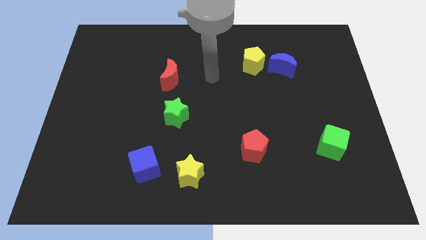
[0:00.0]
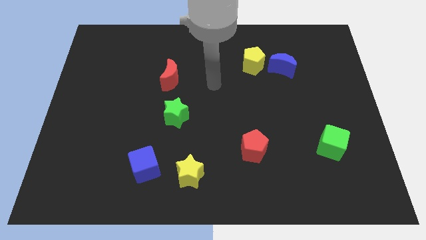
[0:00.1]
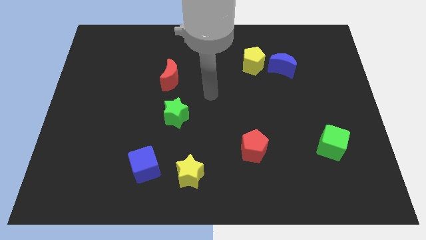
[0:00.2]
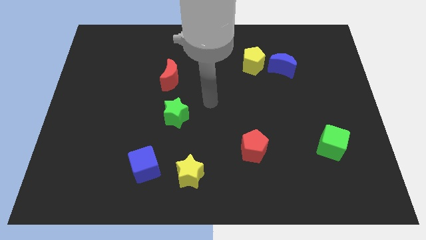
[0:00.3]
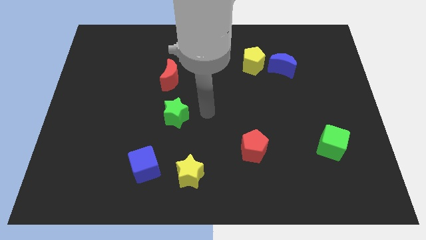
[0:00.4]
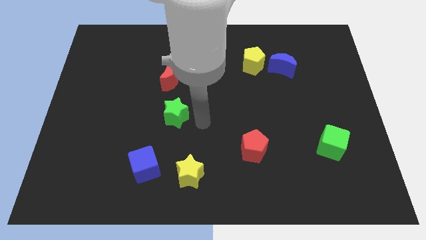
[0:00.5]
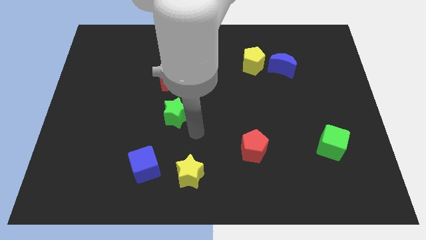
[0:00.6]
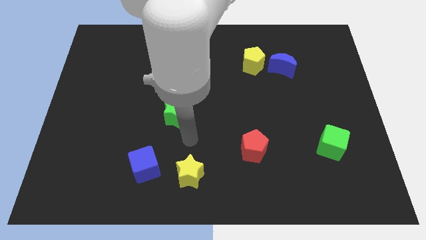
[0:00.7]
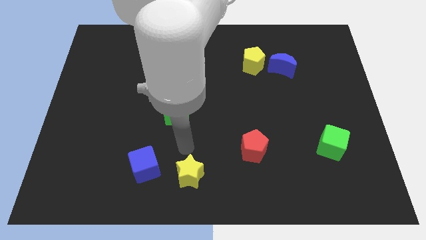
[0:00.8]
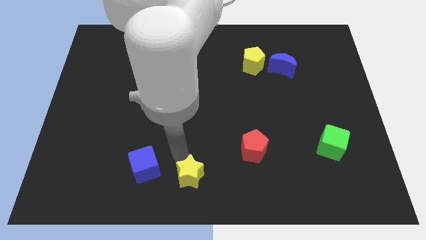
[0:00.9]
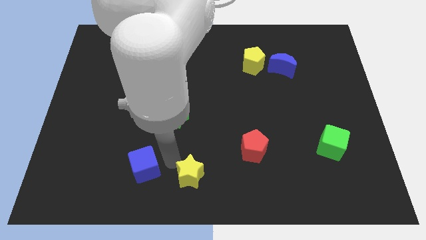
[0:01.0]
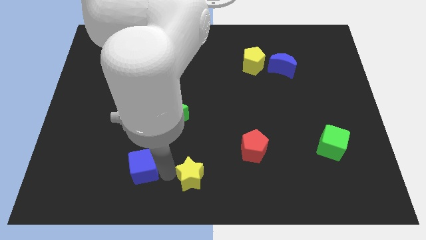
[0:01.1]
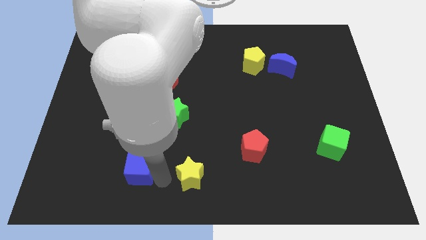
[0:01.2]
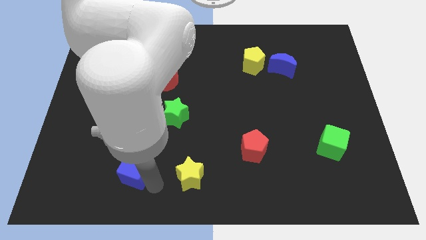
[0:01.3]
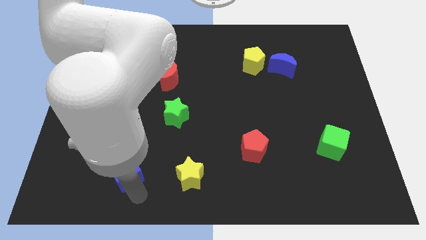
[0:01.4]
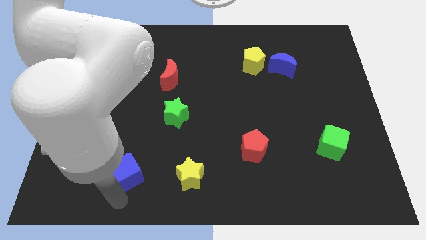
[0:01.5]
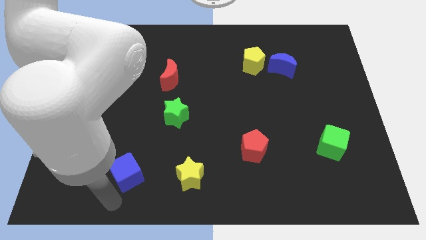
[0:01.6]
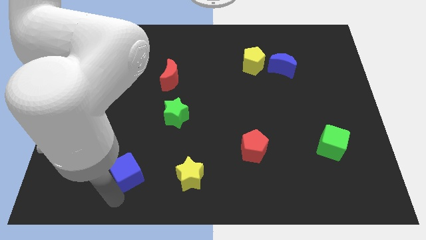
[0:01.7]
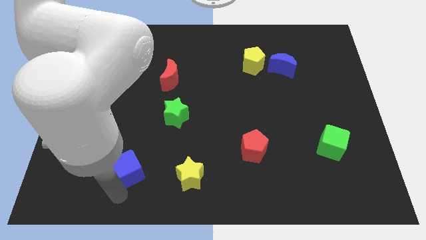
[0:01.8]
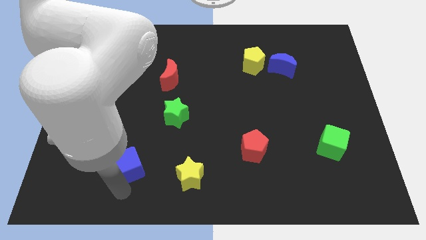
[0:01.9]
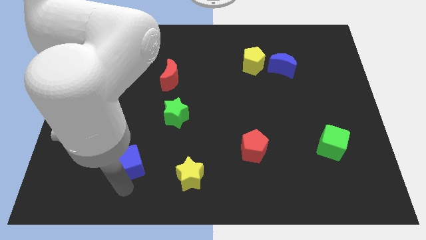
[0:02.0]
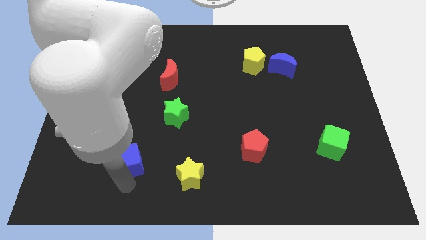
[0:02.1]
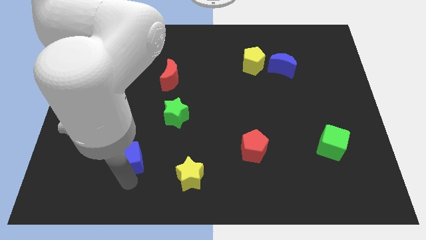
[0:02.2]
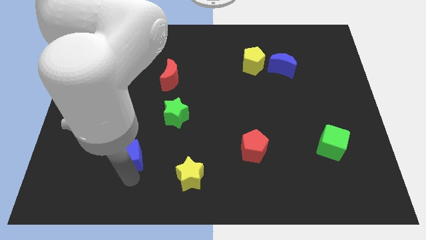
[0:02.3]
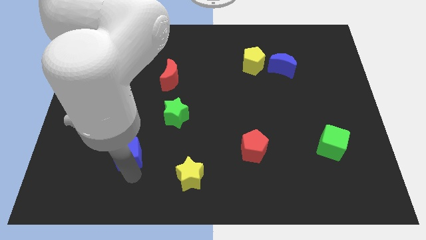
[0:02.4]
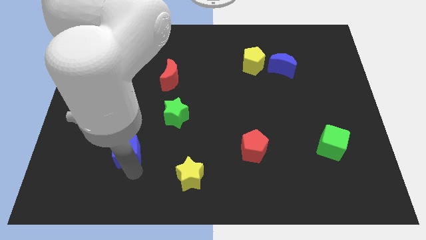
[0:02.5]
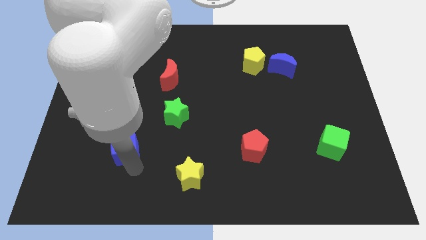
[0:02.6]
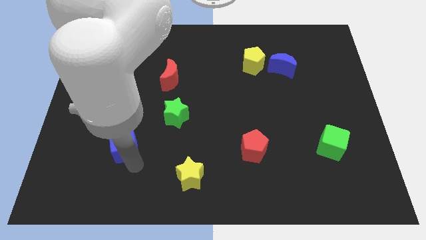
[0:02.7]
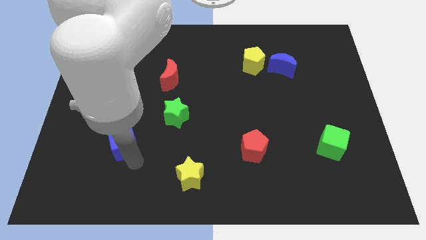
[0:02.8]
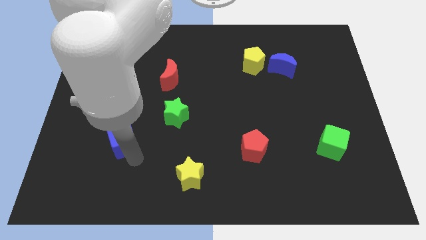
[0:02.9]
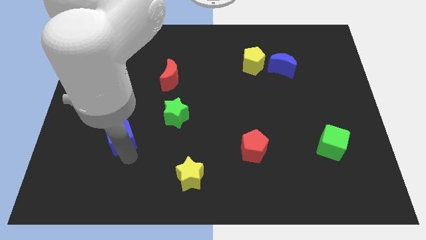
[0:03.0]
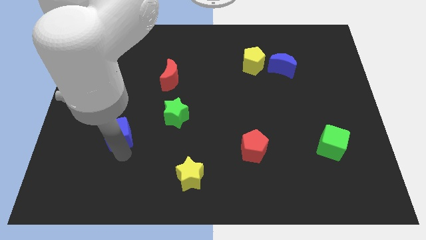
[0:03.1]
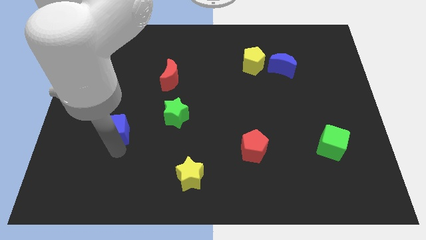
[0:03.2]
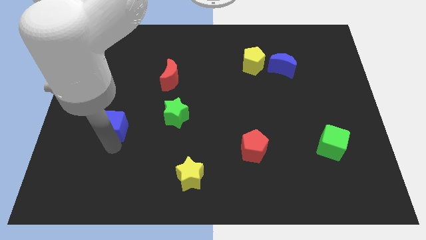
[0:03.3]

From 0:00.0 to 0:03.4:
move the blue cube somewhat up

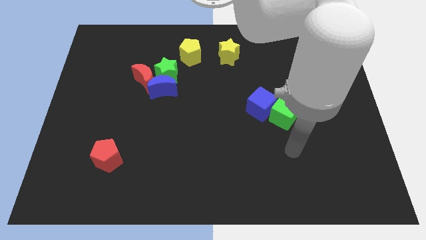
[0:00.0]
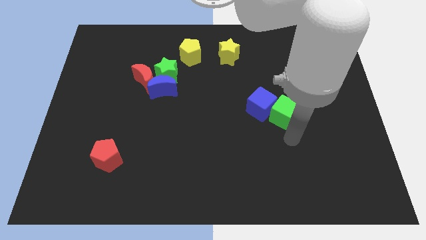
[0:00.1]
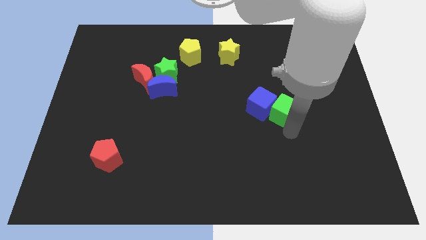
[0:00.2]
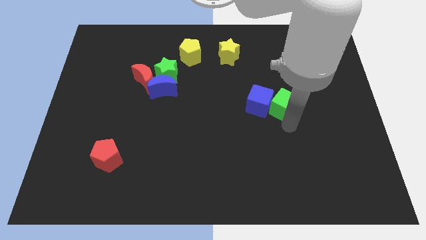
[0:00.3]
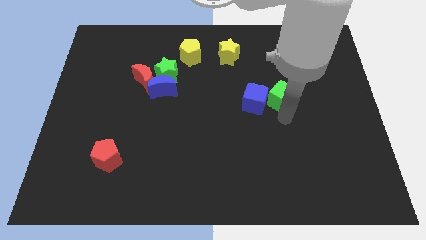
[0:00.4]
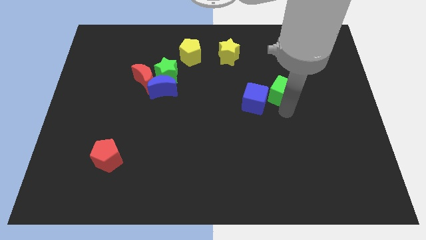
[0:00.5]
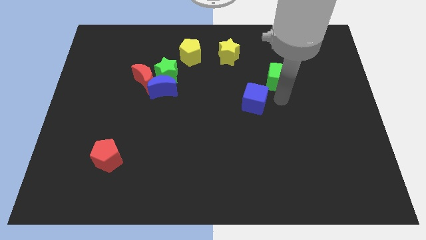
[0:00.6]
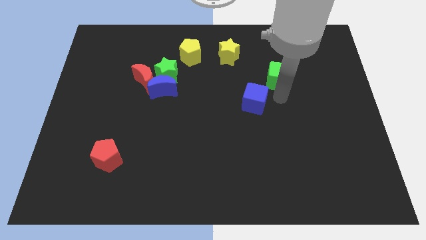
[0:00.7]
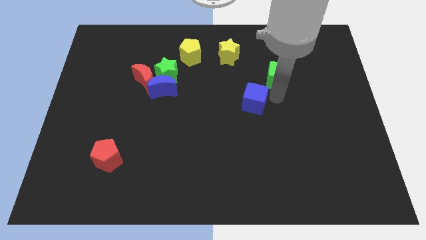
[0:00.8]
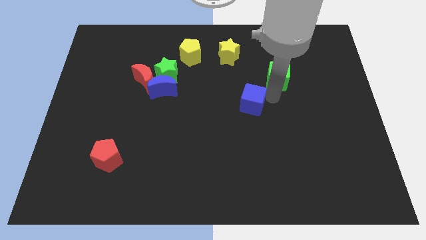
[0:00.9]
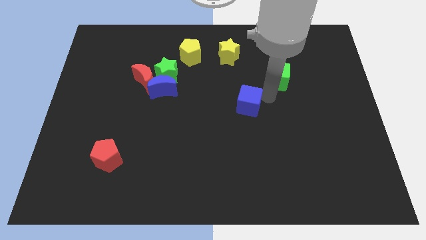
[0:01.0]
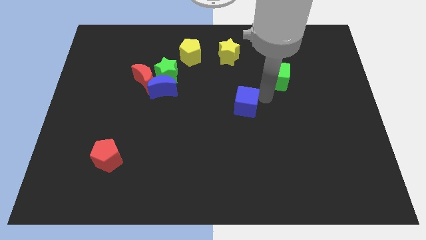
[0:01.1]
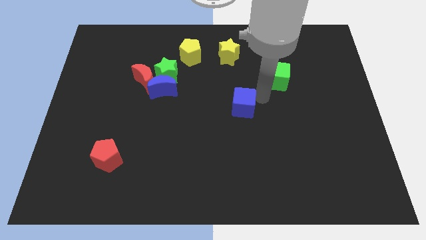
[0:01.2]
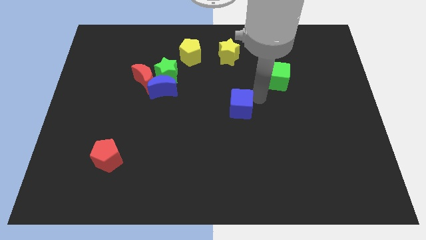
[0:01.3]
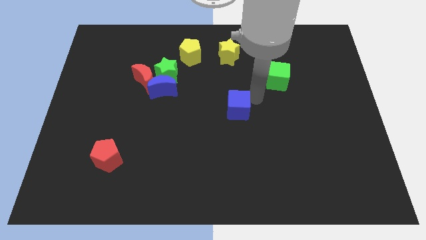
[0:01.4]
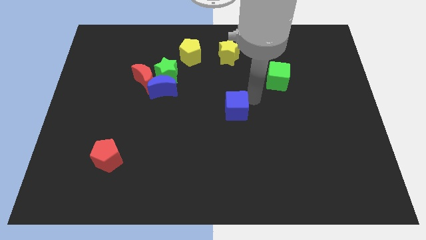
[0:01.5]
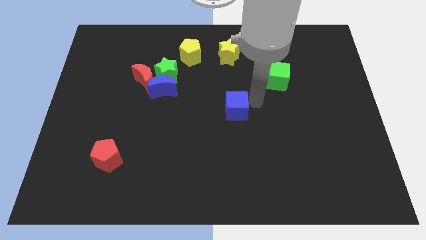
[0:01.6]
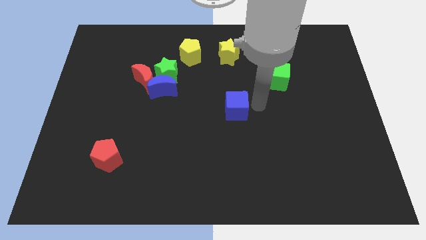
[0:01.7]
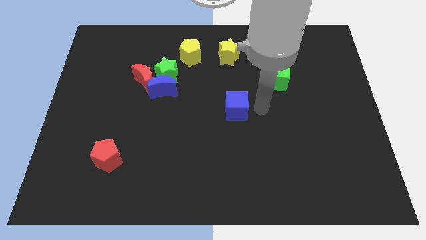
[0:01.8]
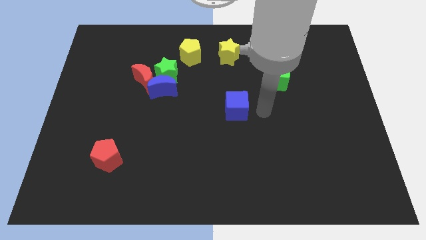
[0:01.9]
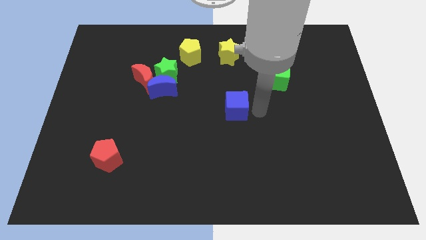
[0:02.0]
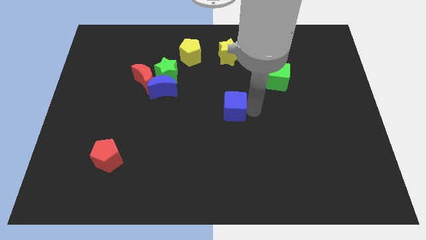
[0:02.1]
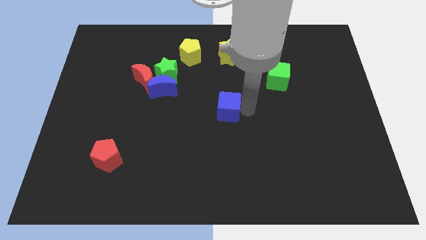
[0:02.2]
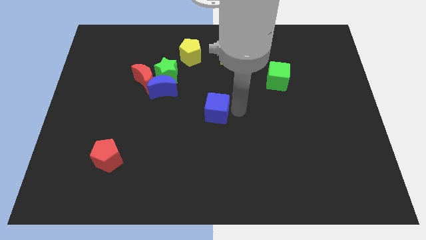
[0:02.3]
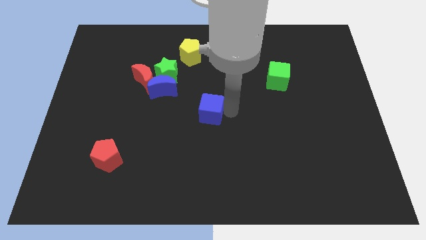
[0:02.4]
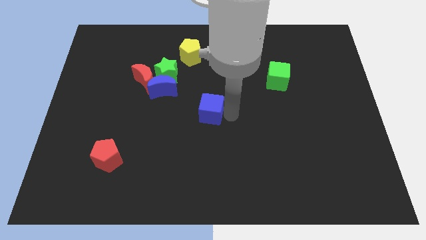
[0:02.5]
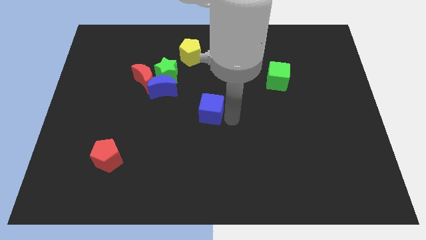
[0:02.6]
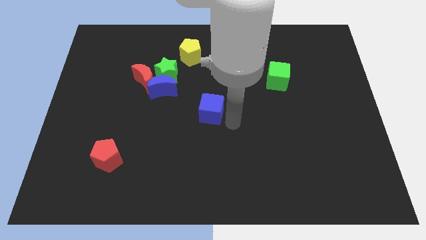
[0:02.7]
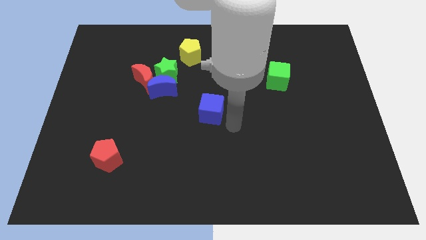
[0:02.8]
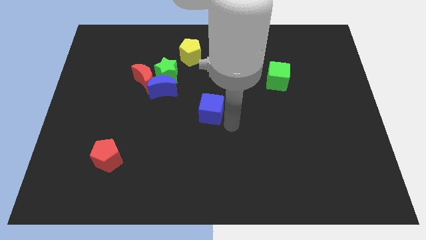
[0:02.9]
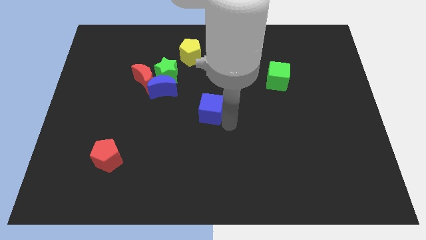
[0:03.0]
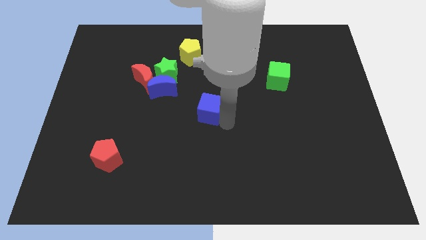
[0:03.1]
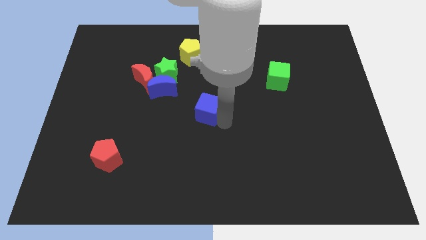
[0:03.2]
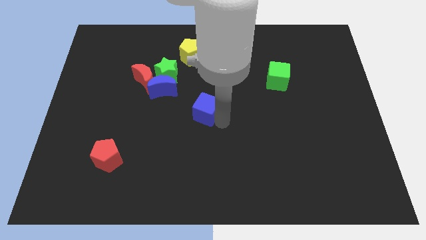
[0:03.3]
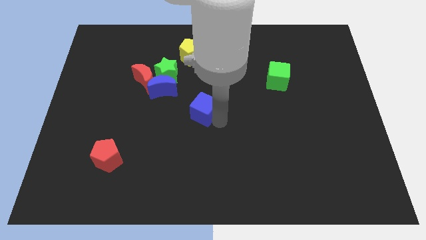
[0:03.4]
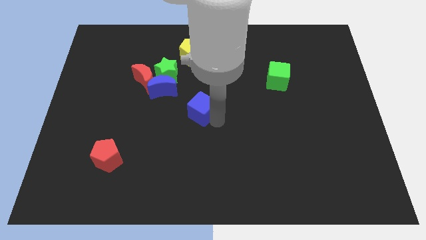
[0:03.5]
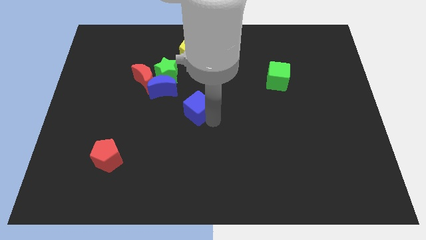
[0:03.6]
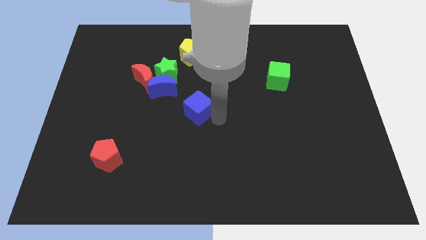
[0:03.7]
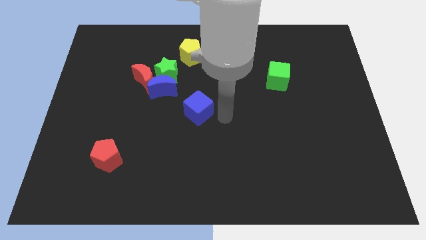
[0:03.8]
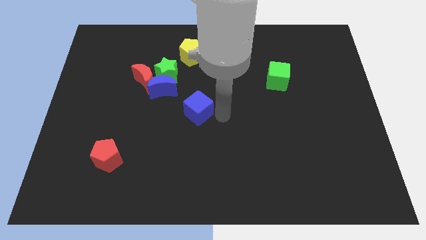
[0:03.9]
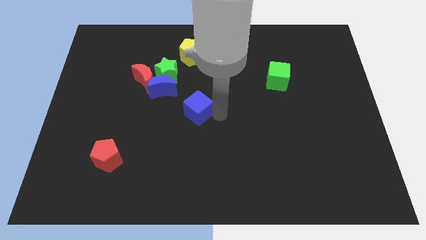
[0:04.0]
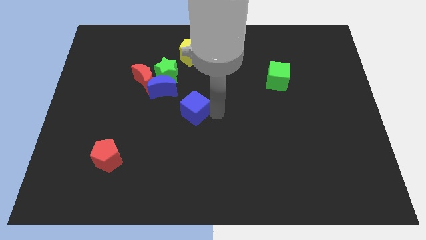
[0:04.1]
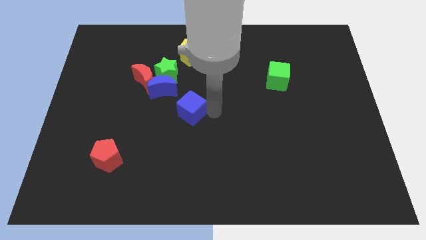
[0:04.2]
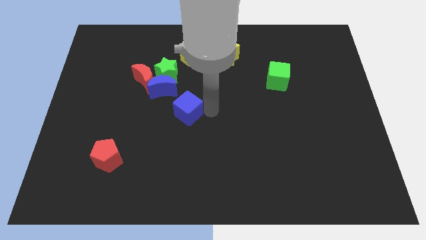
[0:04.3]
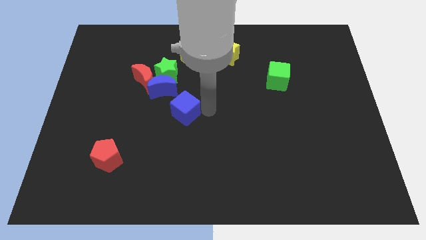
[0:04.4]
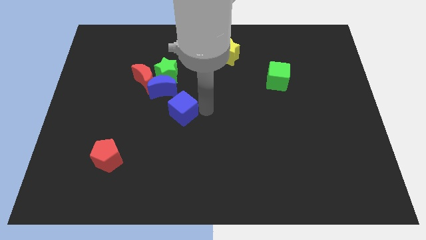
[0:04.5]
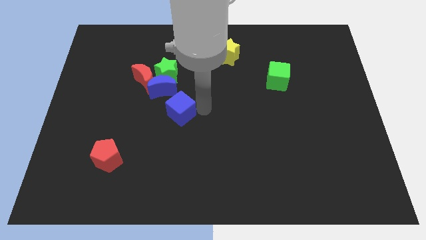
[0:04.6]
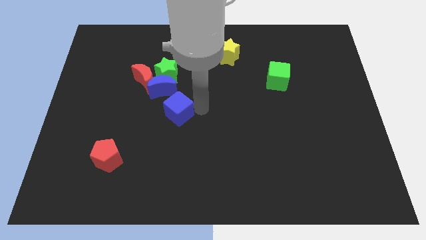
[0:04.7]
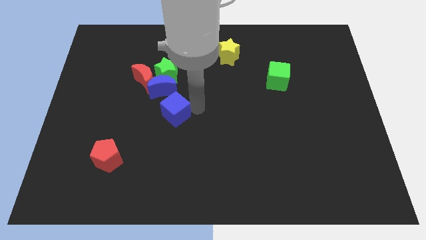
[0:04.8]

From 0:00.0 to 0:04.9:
push the blue cube to the left
